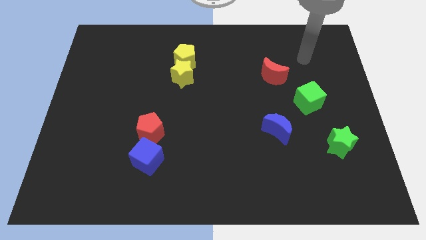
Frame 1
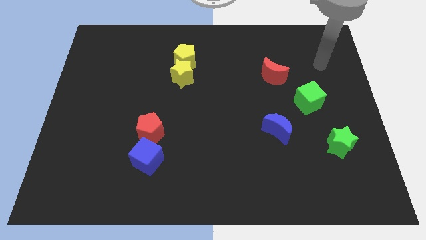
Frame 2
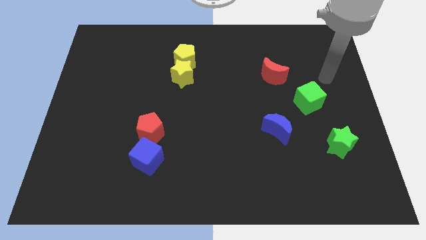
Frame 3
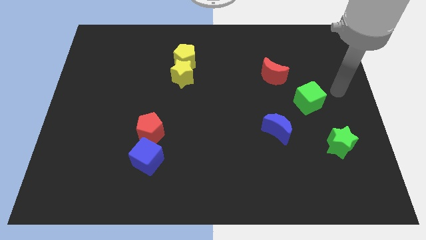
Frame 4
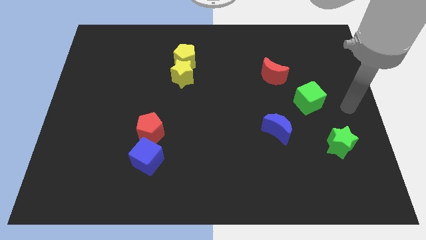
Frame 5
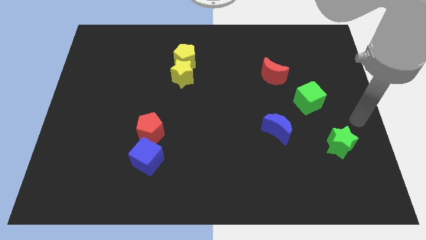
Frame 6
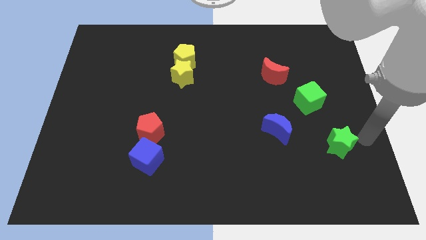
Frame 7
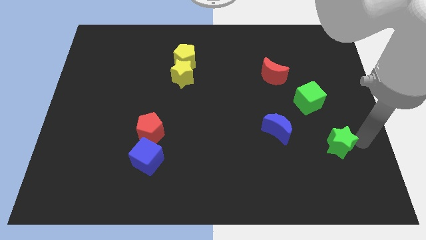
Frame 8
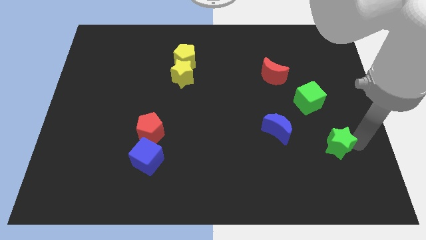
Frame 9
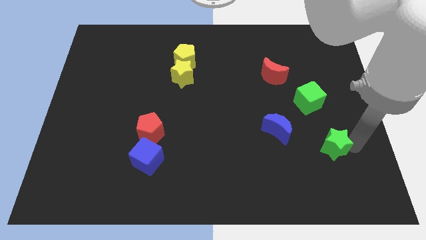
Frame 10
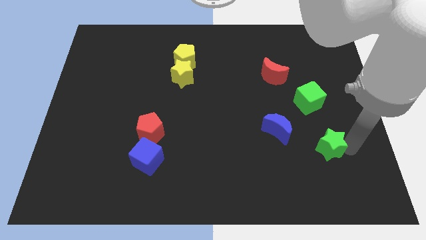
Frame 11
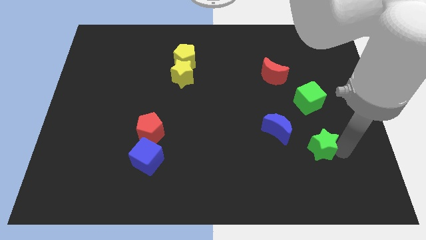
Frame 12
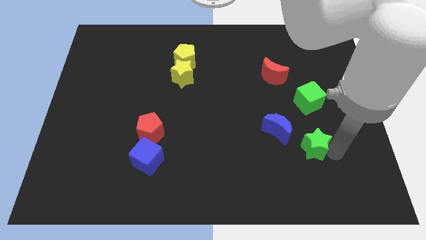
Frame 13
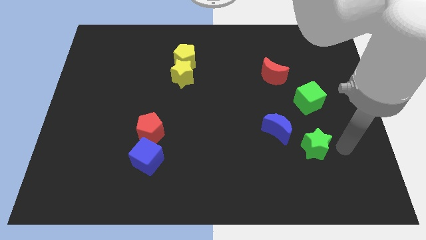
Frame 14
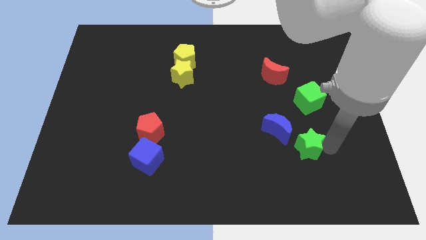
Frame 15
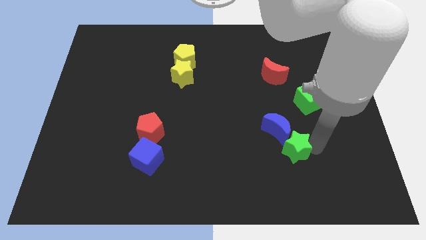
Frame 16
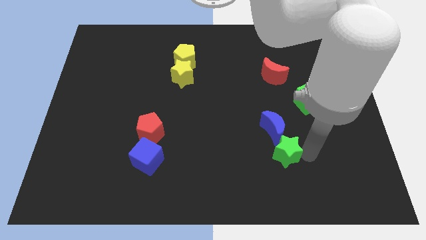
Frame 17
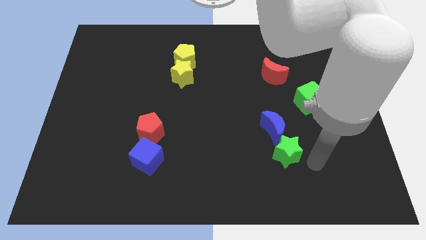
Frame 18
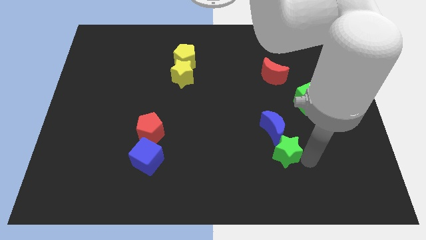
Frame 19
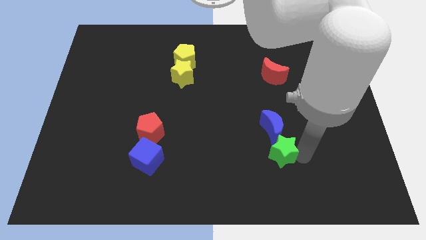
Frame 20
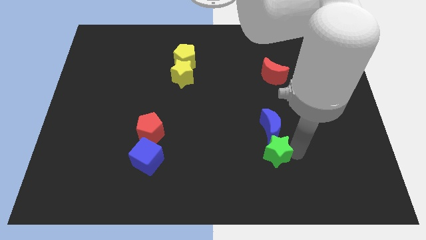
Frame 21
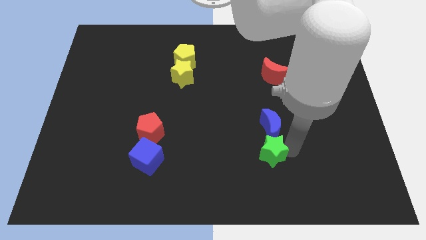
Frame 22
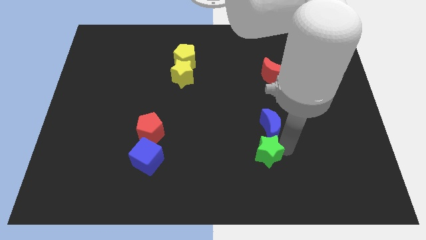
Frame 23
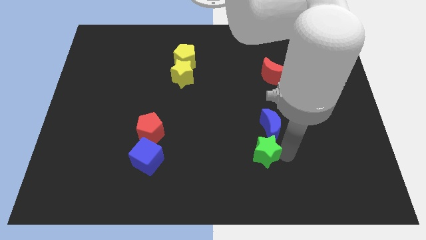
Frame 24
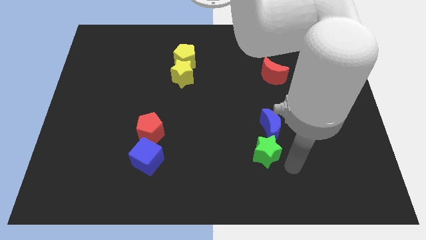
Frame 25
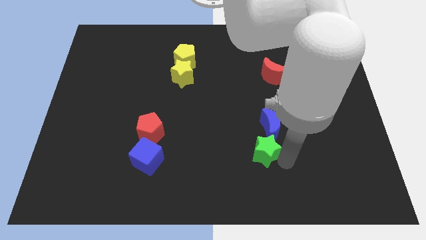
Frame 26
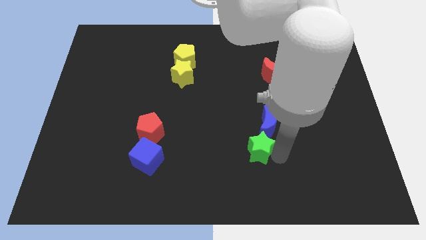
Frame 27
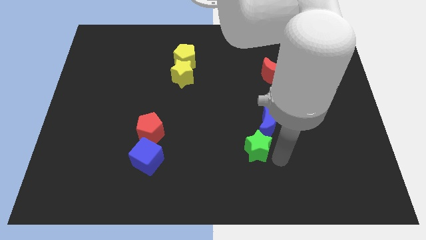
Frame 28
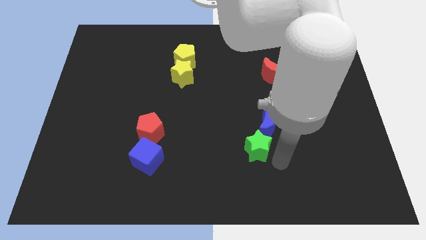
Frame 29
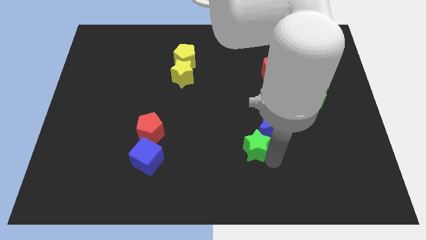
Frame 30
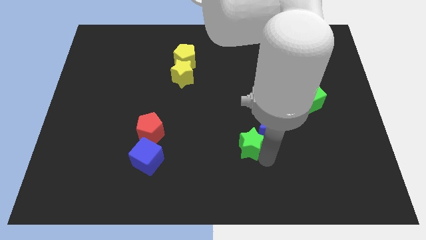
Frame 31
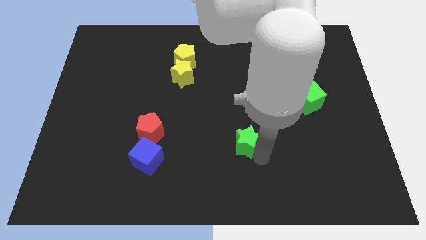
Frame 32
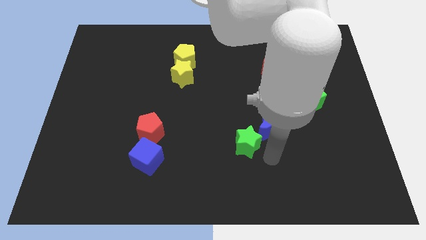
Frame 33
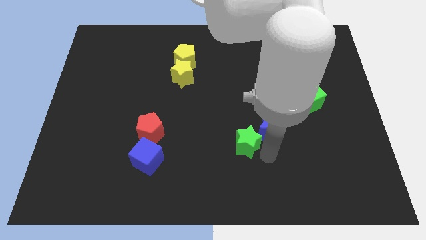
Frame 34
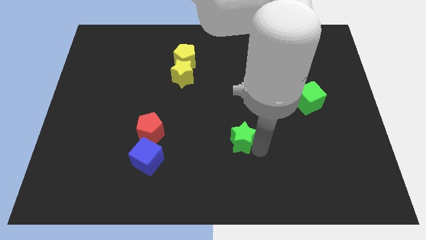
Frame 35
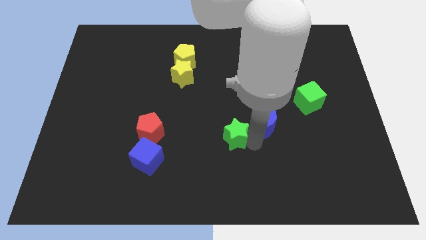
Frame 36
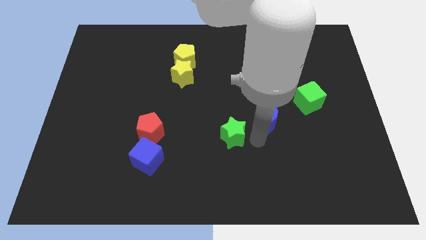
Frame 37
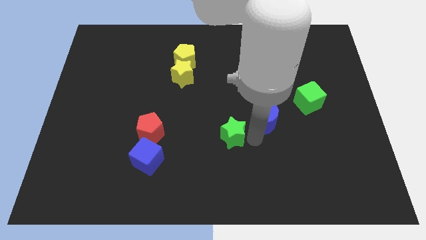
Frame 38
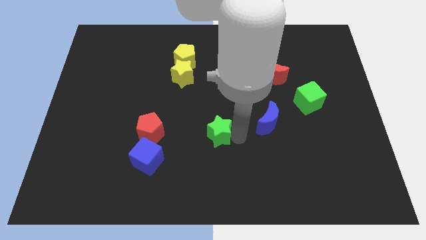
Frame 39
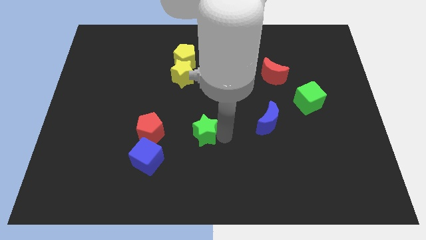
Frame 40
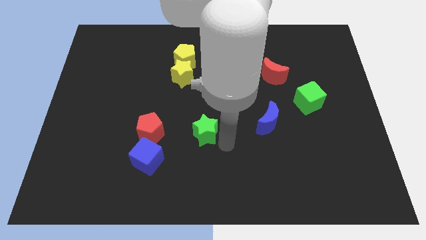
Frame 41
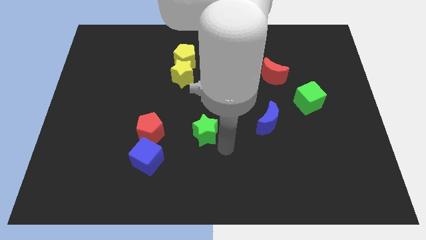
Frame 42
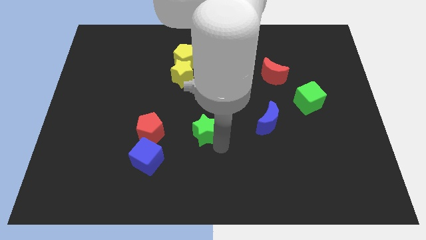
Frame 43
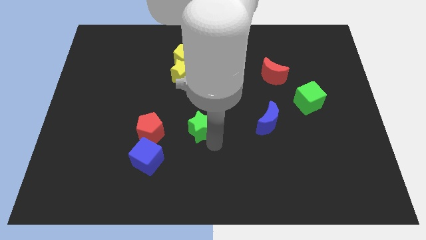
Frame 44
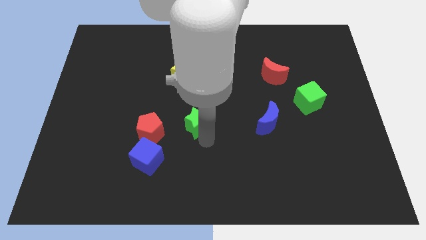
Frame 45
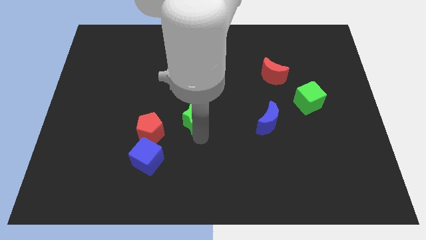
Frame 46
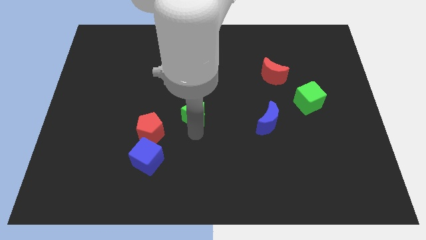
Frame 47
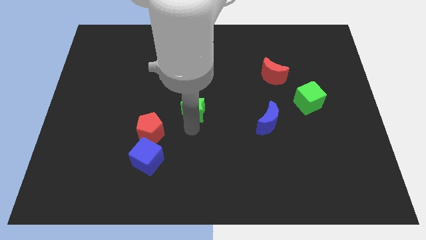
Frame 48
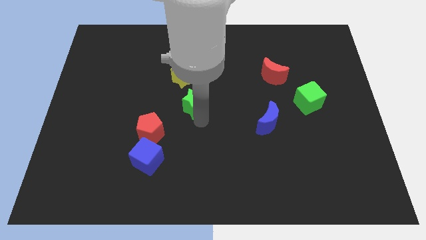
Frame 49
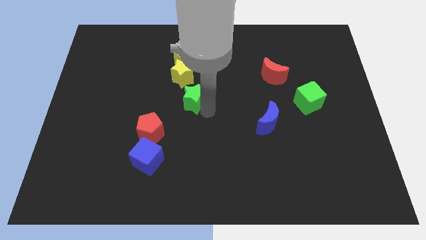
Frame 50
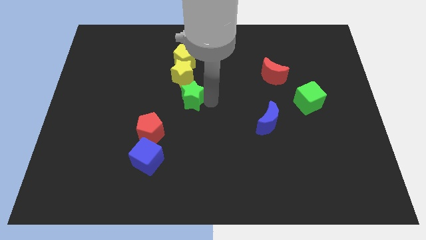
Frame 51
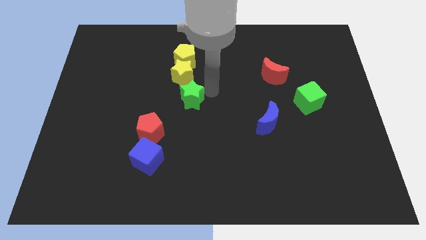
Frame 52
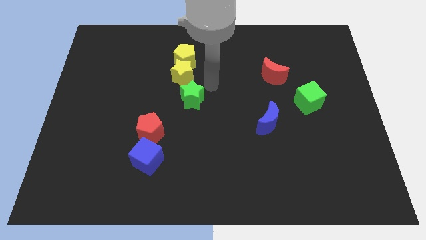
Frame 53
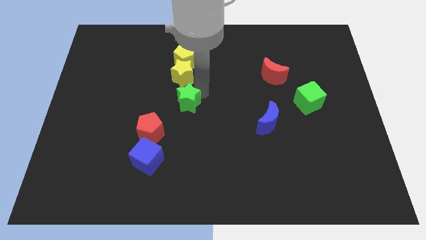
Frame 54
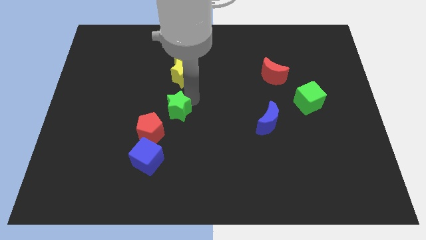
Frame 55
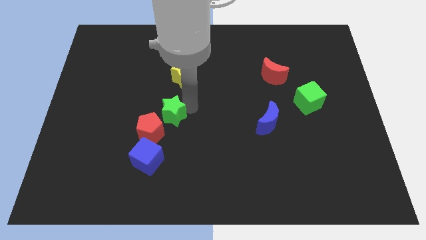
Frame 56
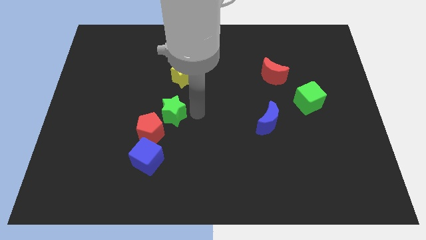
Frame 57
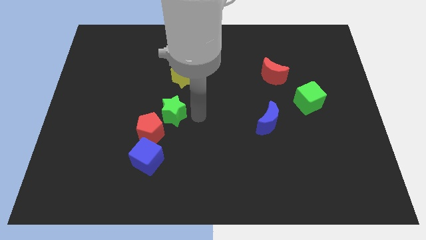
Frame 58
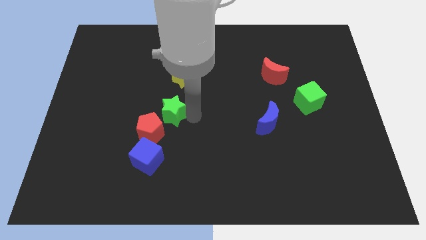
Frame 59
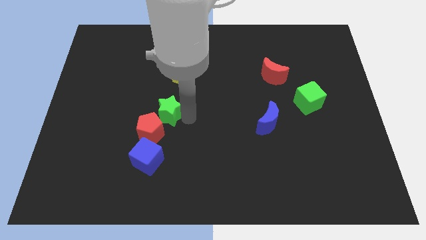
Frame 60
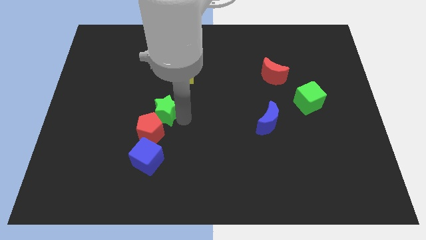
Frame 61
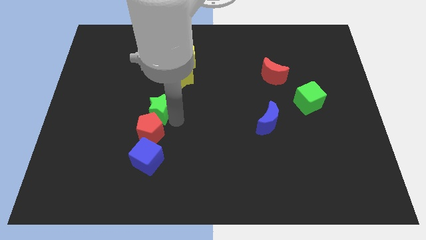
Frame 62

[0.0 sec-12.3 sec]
slide the green star to the top left of the red pentagon
